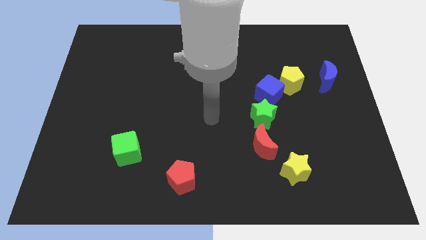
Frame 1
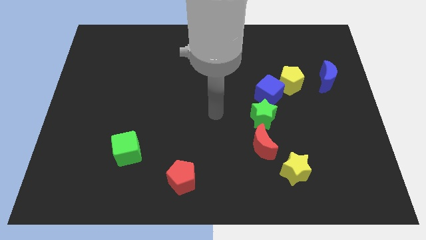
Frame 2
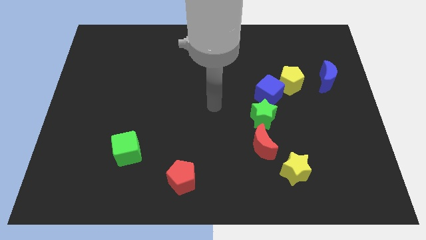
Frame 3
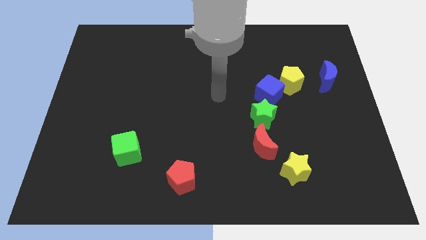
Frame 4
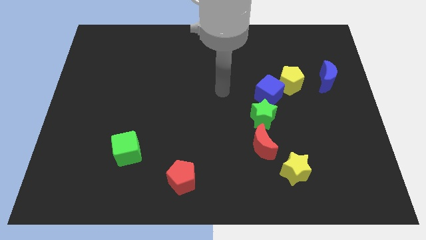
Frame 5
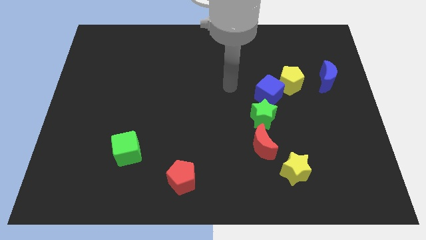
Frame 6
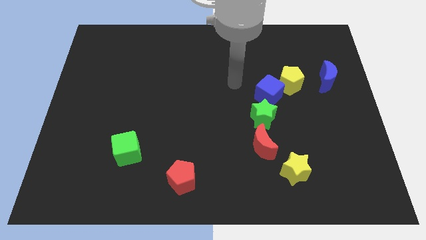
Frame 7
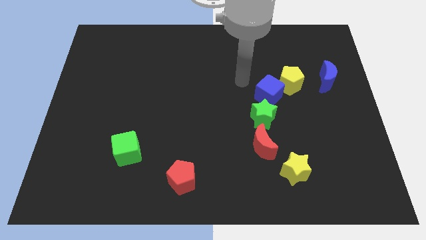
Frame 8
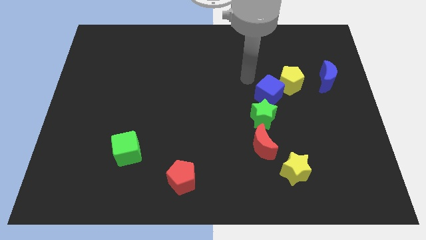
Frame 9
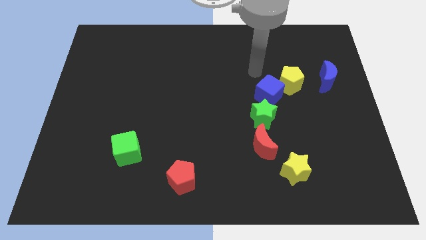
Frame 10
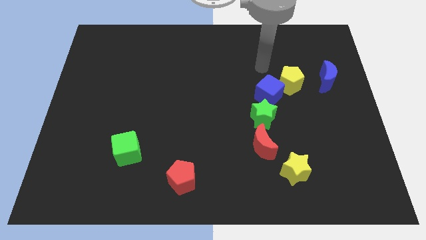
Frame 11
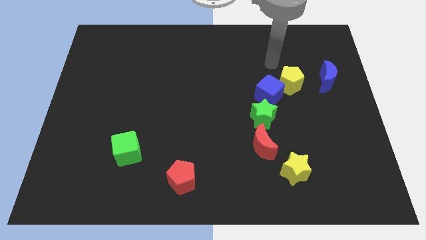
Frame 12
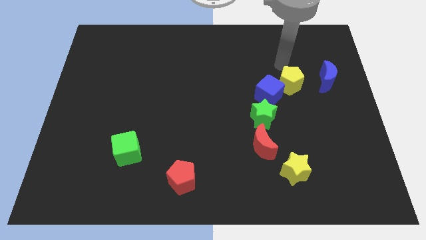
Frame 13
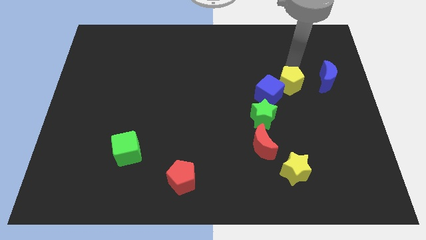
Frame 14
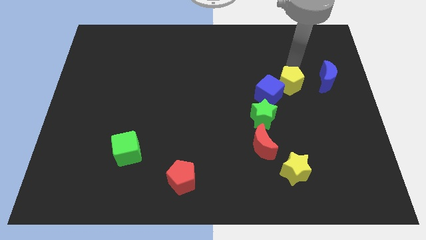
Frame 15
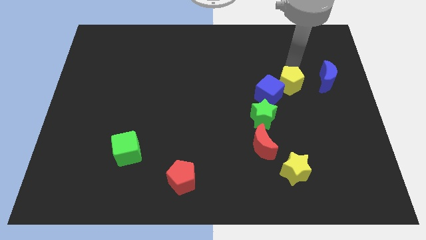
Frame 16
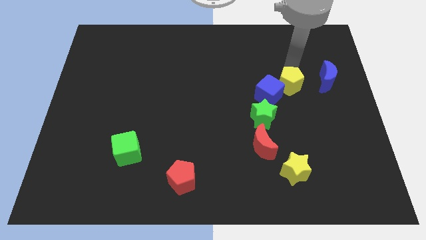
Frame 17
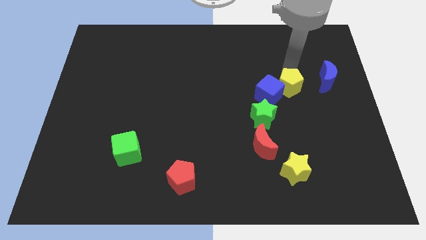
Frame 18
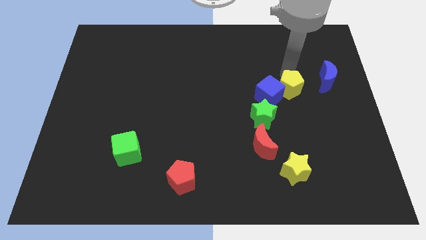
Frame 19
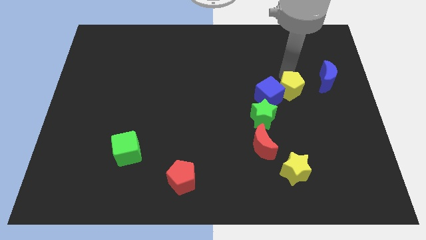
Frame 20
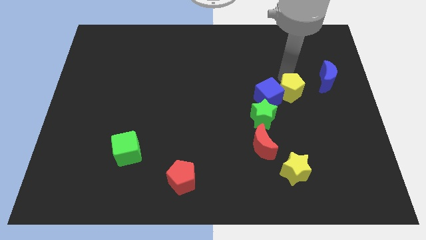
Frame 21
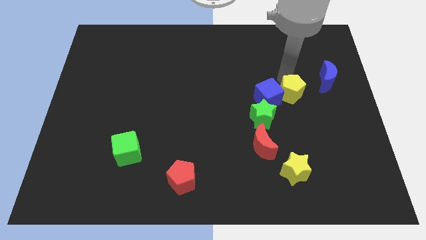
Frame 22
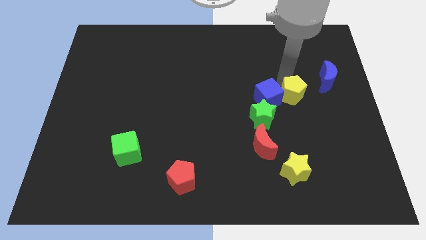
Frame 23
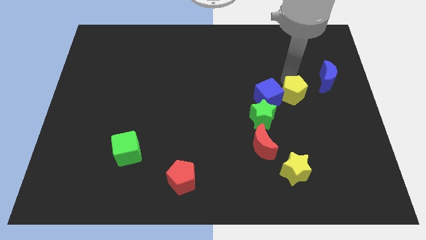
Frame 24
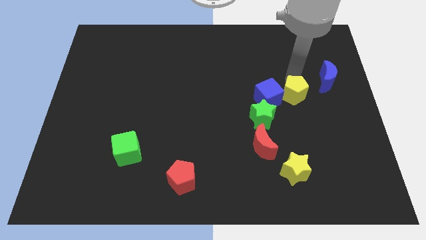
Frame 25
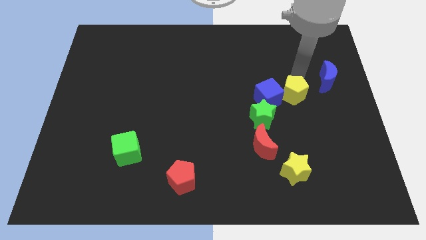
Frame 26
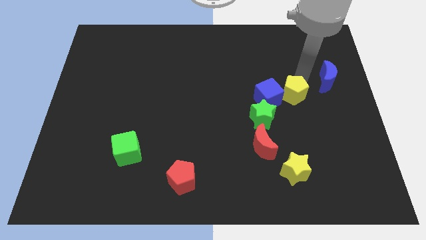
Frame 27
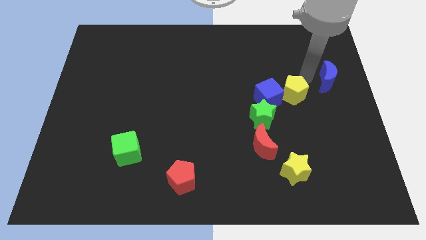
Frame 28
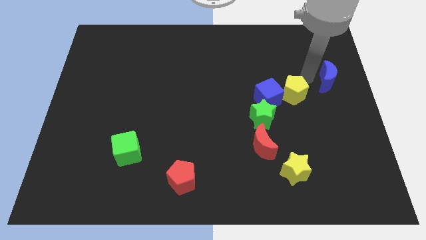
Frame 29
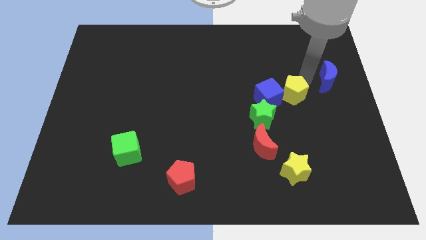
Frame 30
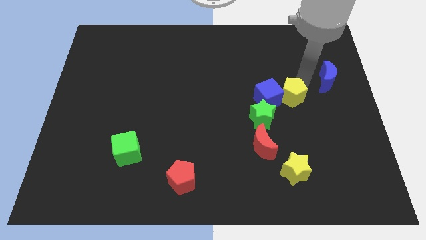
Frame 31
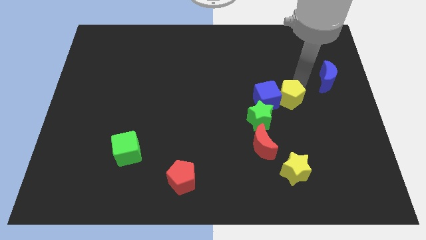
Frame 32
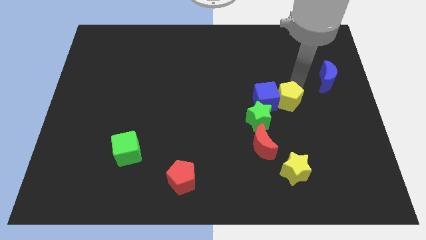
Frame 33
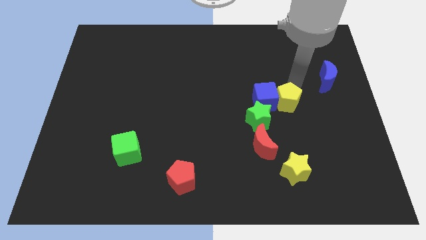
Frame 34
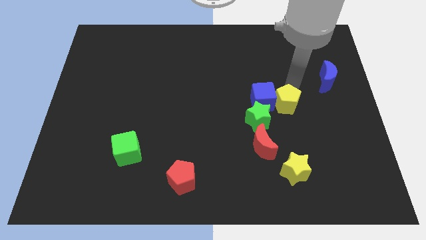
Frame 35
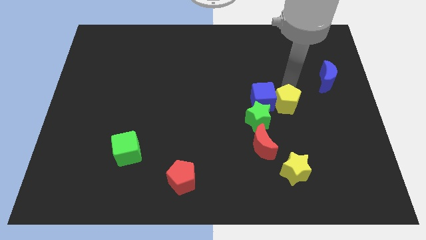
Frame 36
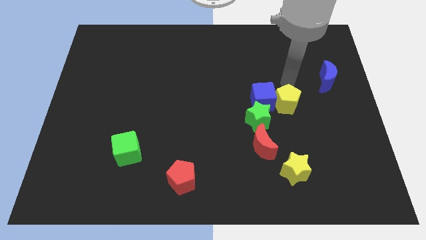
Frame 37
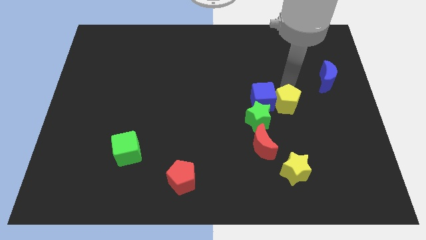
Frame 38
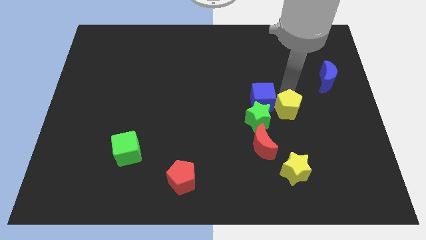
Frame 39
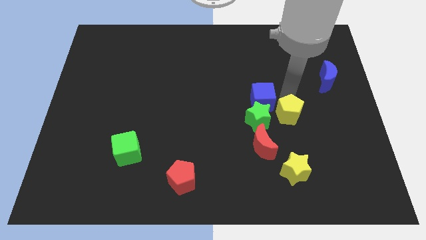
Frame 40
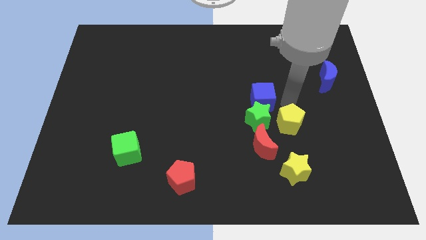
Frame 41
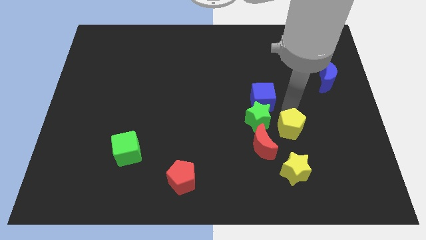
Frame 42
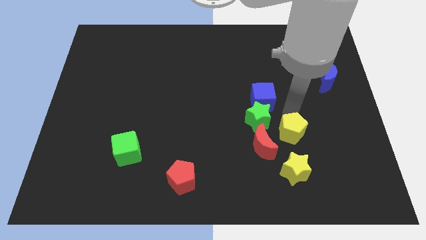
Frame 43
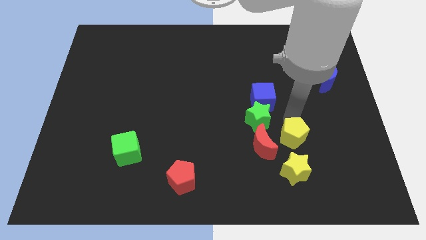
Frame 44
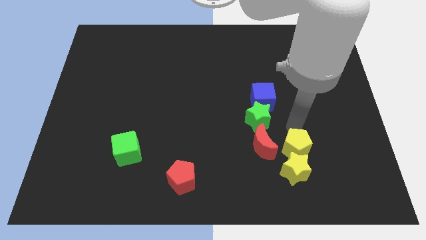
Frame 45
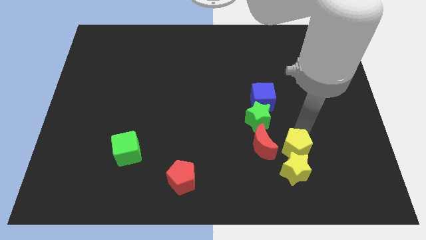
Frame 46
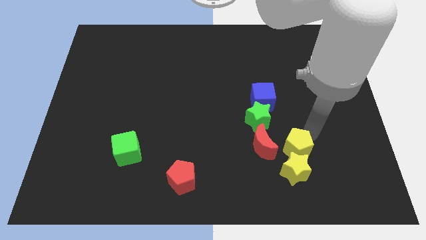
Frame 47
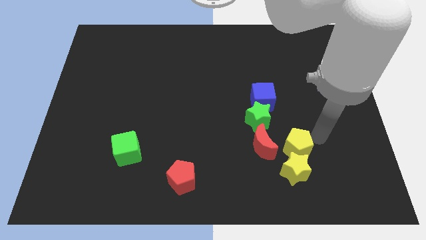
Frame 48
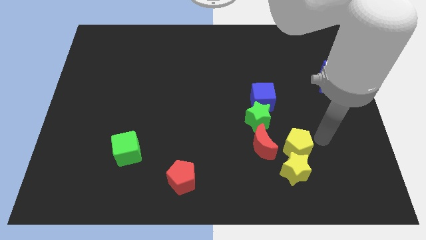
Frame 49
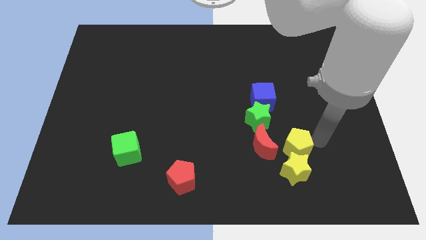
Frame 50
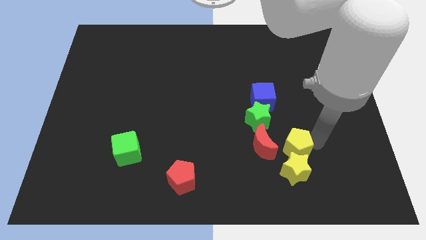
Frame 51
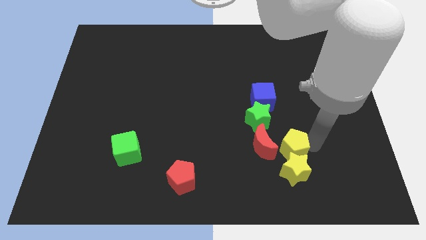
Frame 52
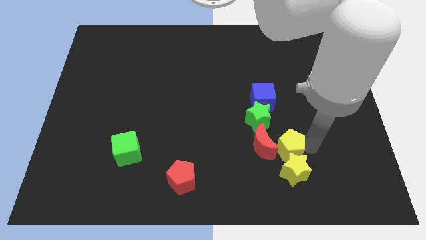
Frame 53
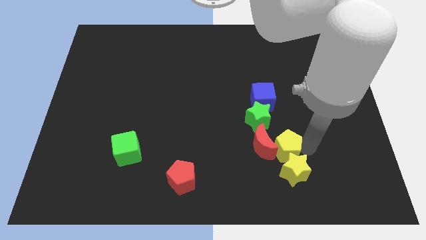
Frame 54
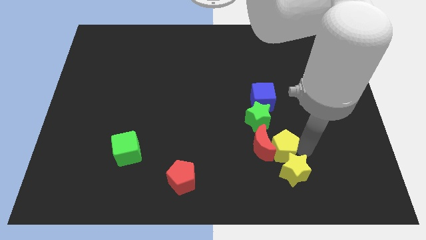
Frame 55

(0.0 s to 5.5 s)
slide the yellow pentagon to the bottom of the green star

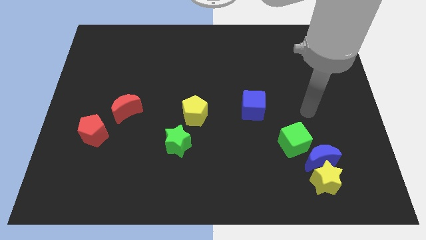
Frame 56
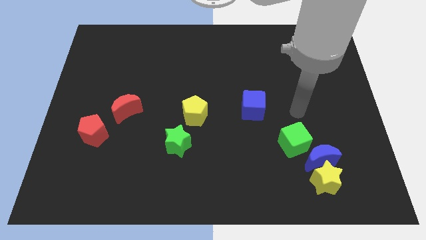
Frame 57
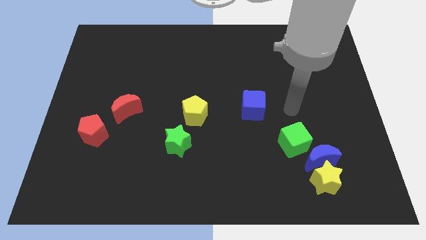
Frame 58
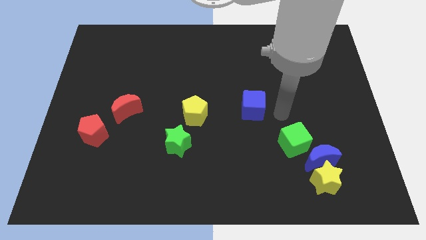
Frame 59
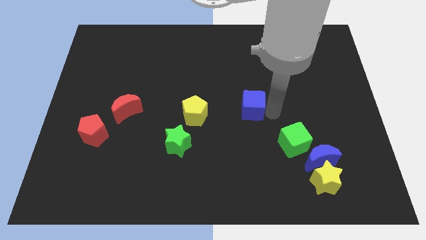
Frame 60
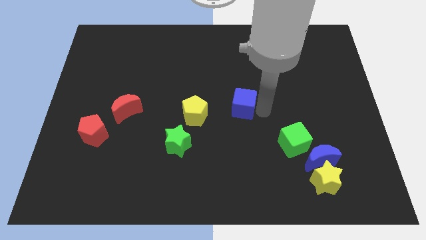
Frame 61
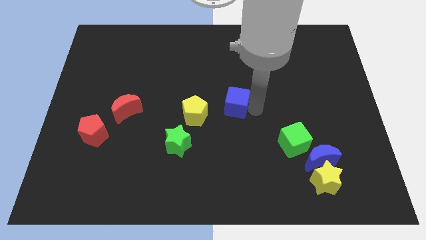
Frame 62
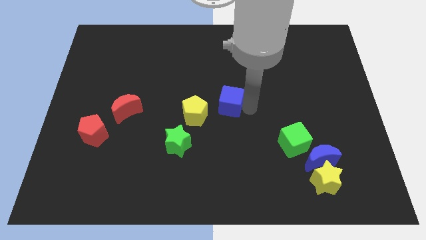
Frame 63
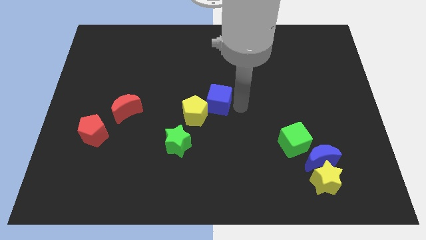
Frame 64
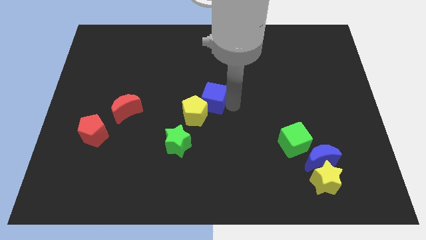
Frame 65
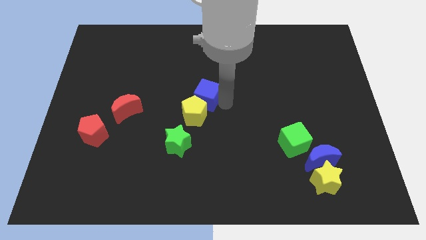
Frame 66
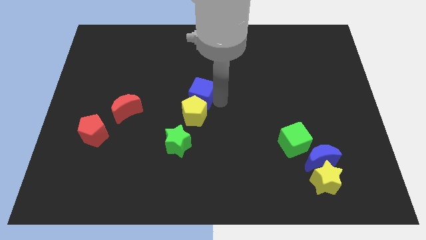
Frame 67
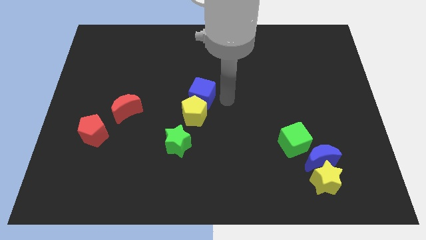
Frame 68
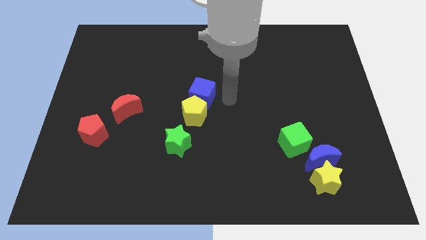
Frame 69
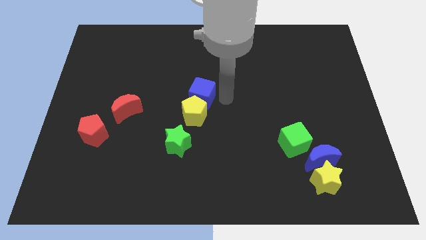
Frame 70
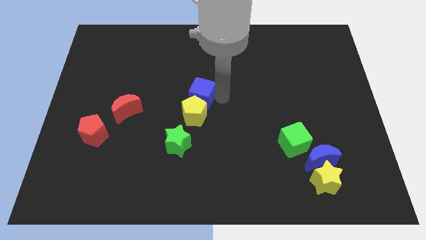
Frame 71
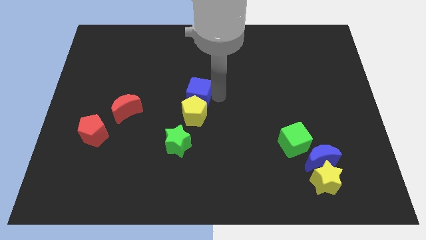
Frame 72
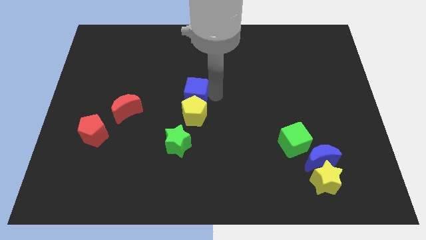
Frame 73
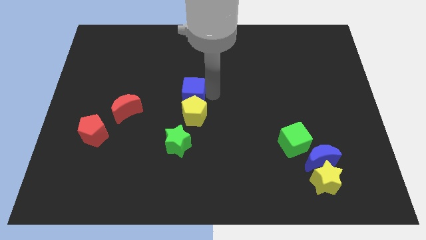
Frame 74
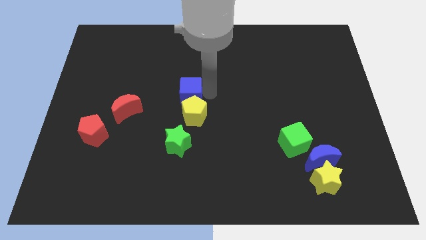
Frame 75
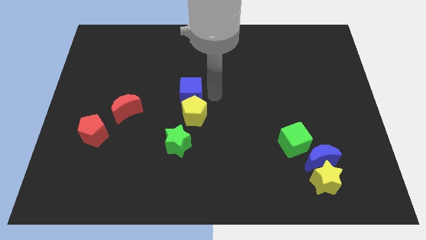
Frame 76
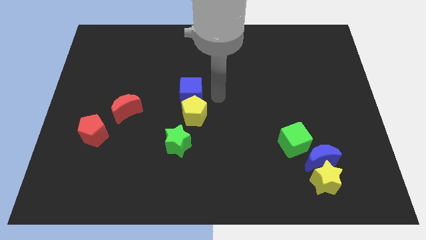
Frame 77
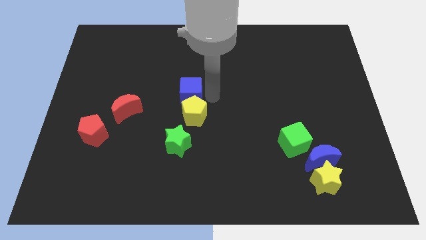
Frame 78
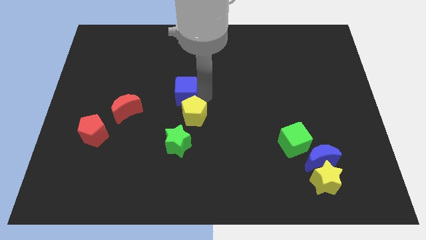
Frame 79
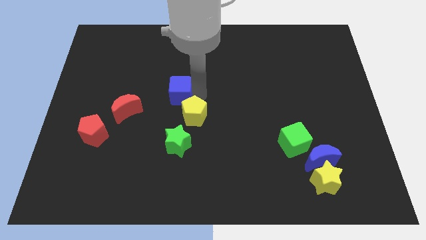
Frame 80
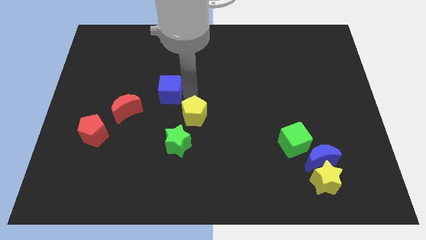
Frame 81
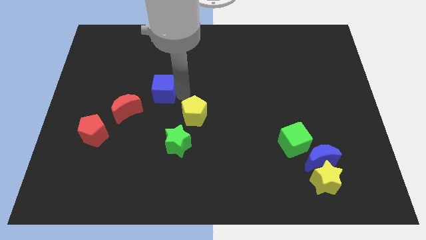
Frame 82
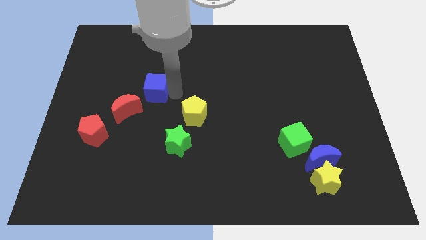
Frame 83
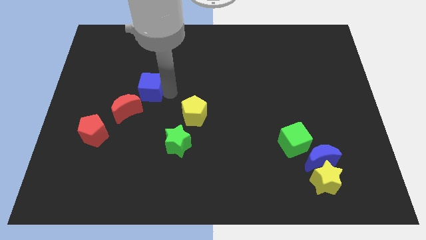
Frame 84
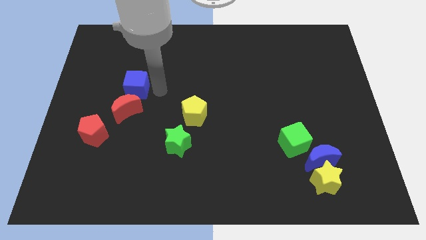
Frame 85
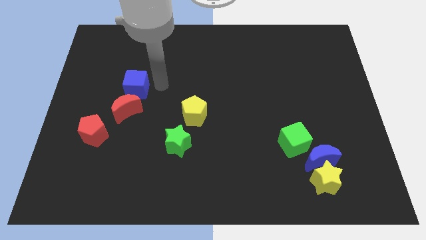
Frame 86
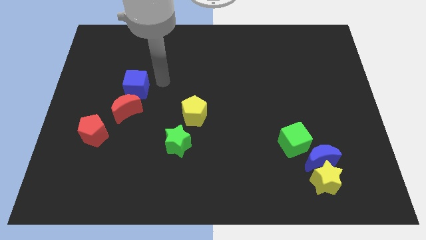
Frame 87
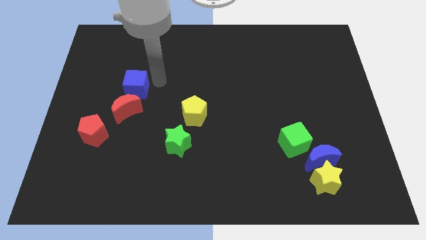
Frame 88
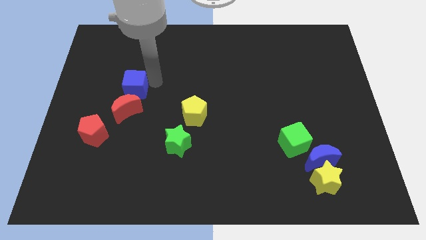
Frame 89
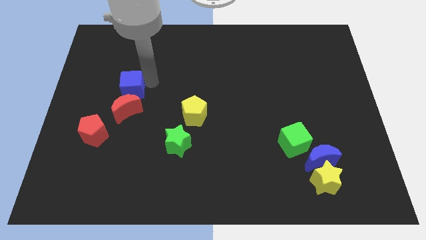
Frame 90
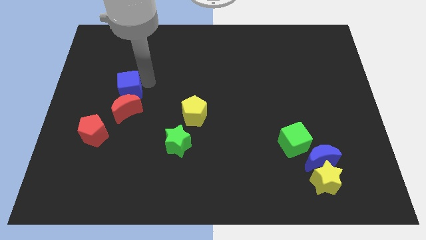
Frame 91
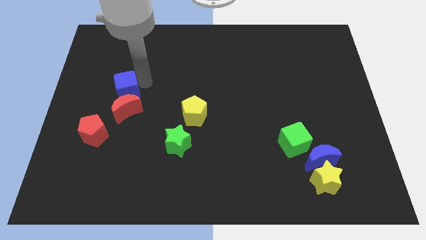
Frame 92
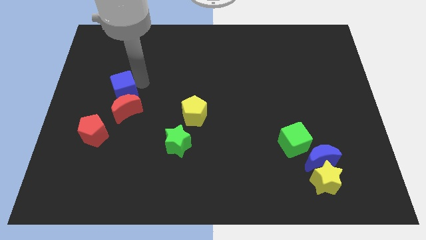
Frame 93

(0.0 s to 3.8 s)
push the blue cube to the top side of the red pentagon
